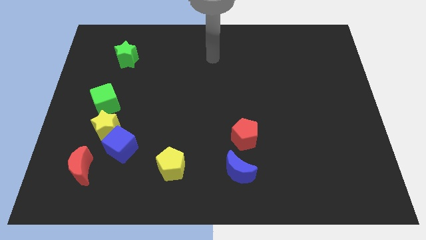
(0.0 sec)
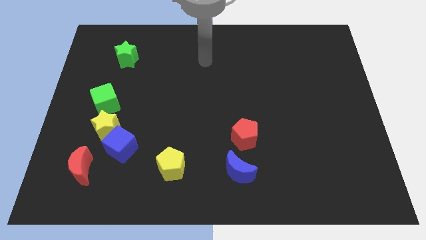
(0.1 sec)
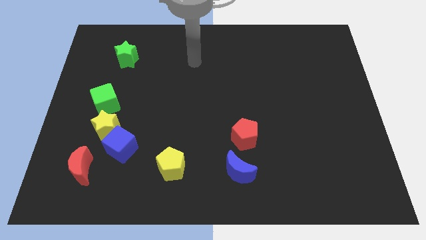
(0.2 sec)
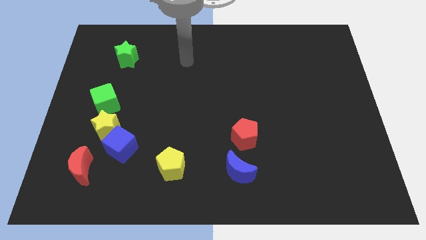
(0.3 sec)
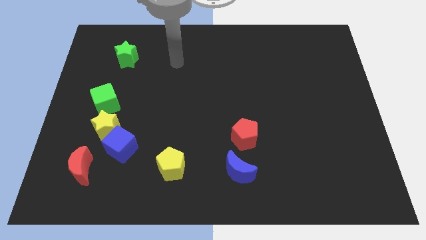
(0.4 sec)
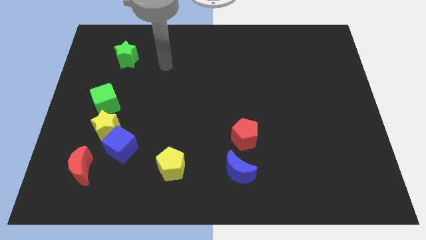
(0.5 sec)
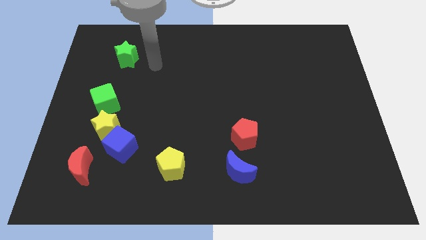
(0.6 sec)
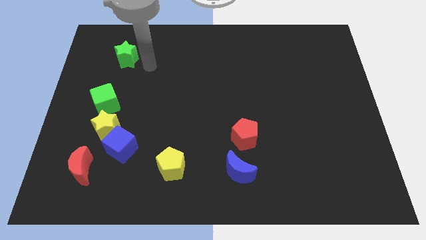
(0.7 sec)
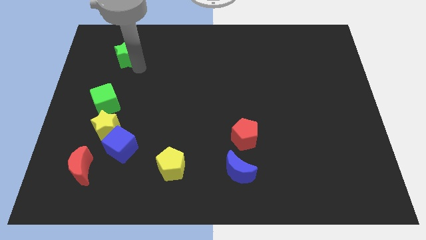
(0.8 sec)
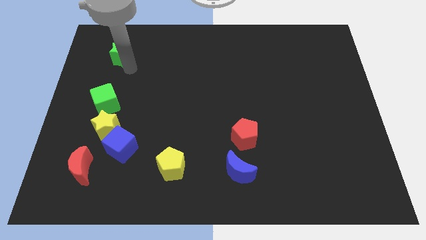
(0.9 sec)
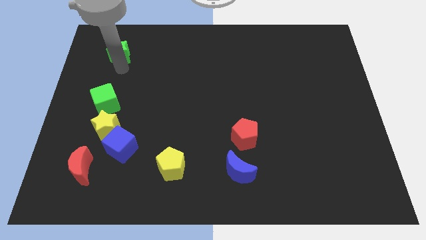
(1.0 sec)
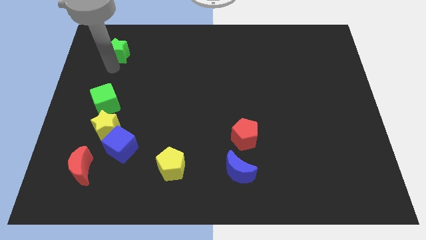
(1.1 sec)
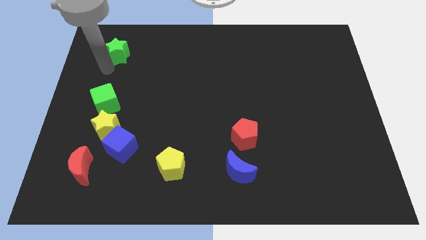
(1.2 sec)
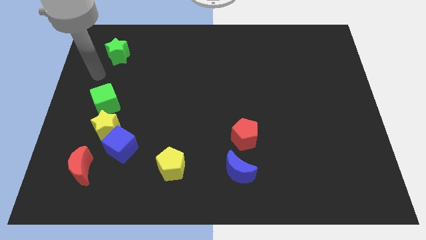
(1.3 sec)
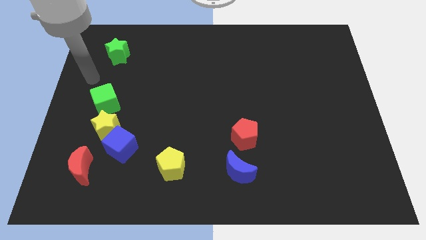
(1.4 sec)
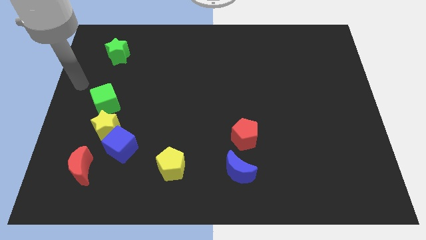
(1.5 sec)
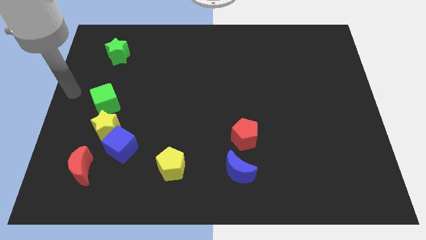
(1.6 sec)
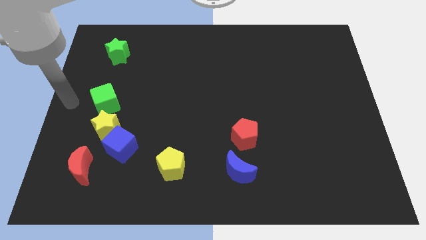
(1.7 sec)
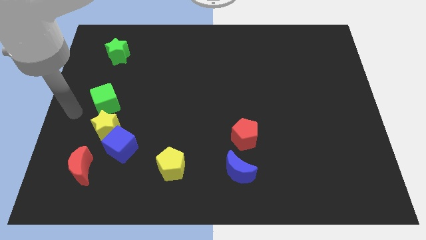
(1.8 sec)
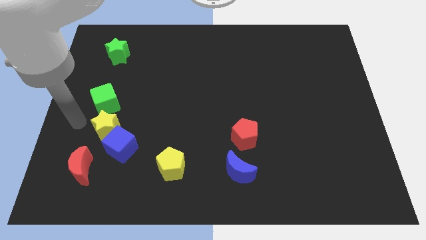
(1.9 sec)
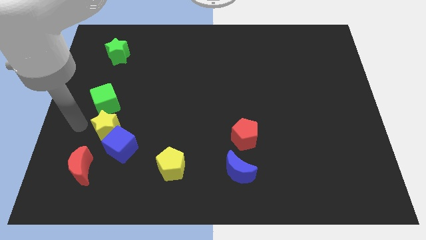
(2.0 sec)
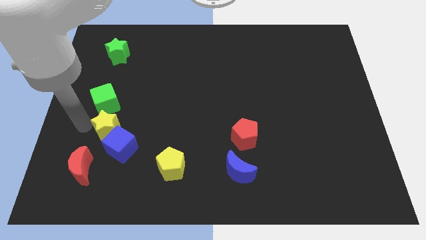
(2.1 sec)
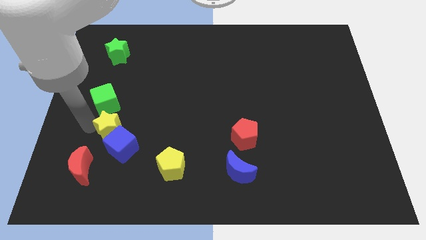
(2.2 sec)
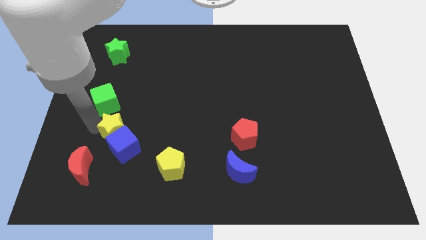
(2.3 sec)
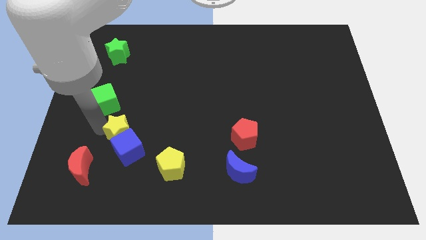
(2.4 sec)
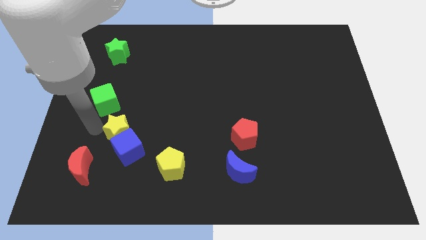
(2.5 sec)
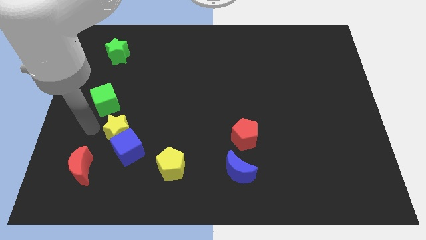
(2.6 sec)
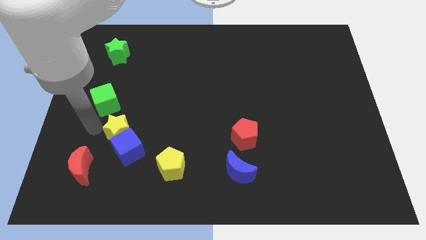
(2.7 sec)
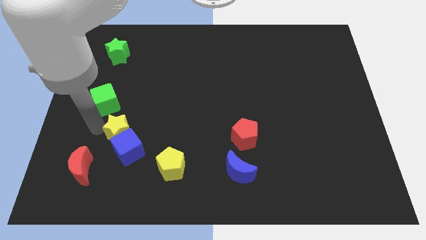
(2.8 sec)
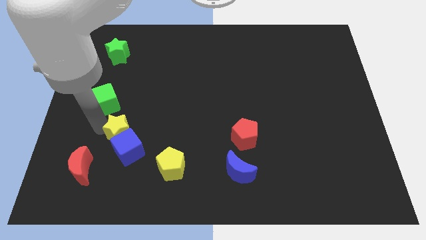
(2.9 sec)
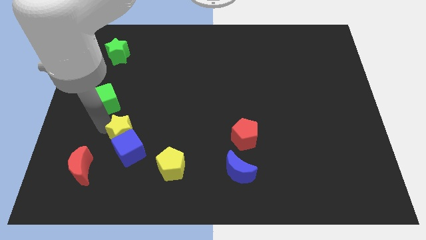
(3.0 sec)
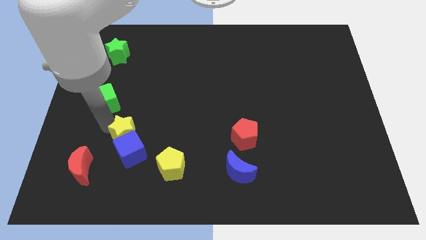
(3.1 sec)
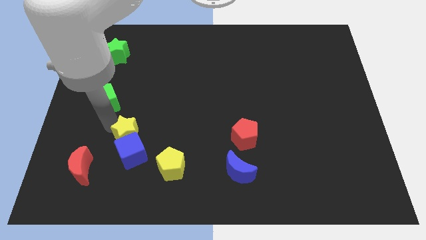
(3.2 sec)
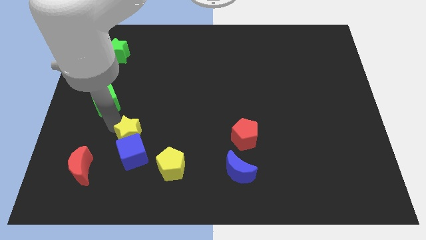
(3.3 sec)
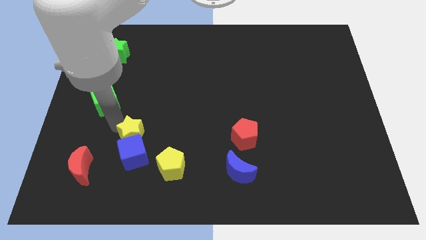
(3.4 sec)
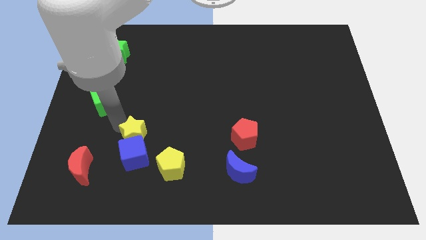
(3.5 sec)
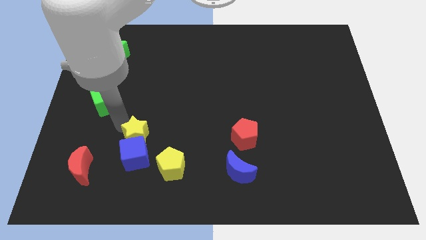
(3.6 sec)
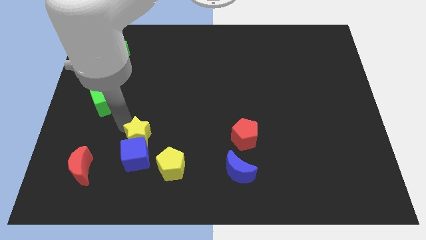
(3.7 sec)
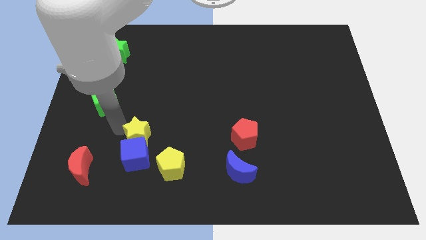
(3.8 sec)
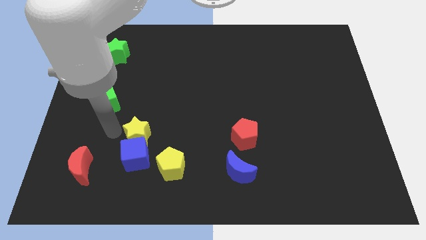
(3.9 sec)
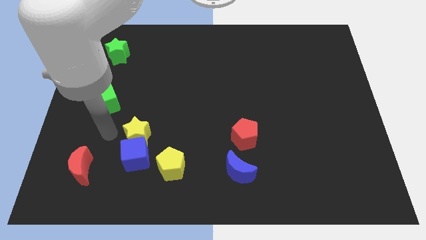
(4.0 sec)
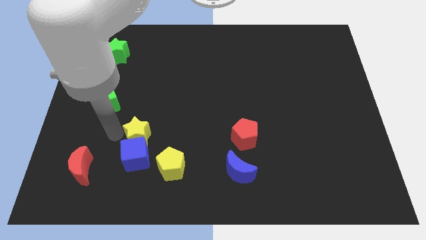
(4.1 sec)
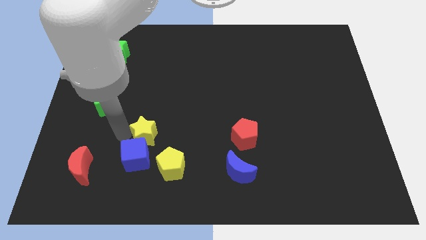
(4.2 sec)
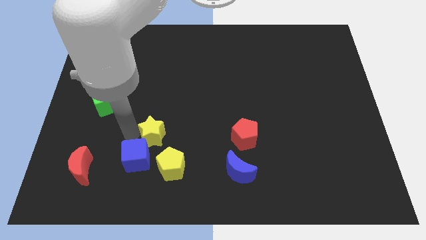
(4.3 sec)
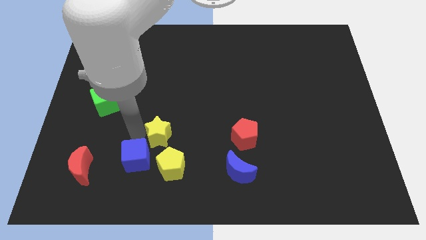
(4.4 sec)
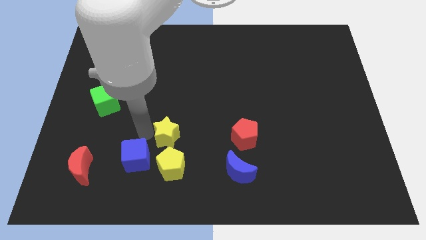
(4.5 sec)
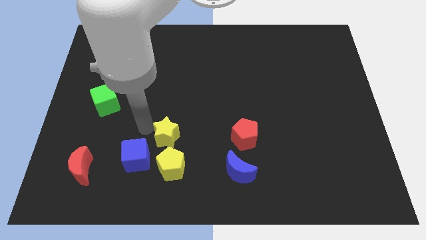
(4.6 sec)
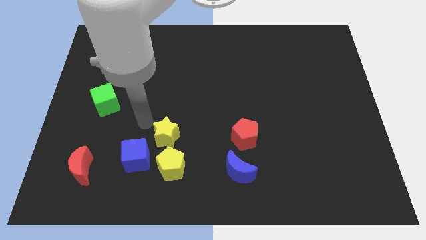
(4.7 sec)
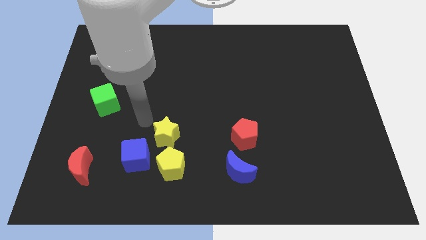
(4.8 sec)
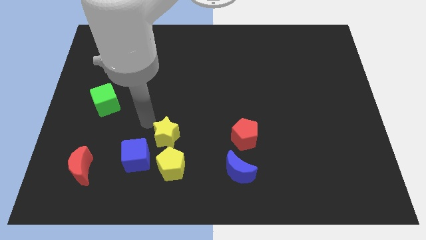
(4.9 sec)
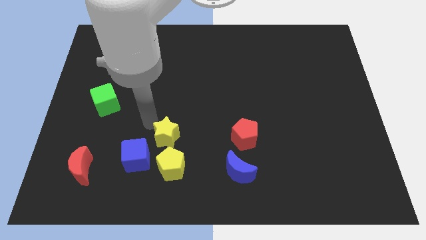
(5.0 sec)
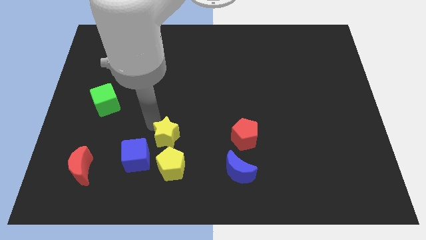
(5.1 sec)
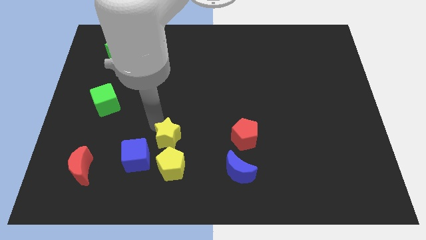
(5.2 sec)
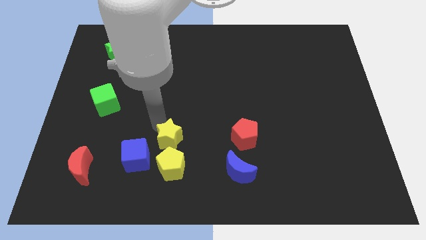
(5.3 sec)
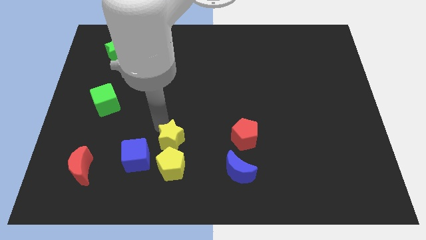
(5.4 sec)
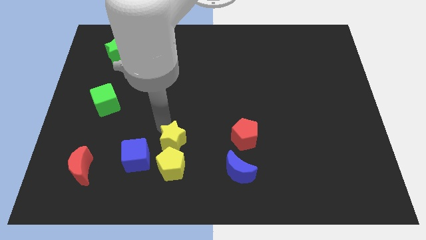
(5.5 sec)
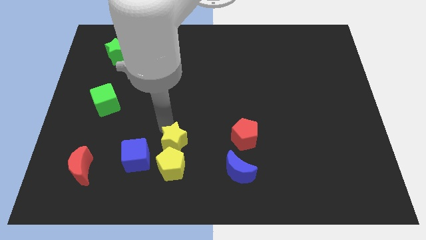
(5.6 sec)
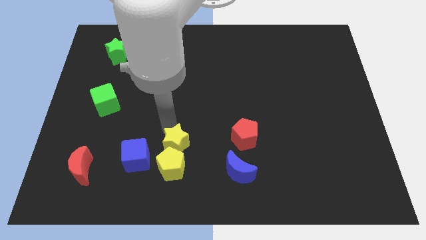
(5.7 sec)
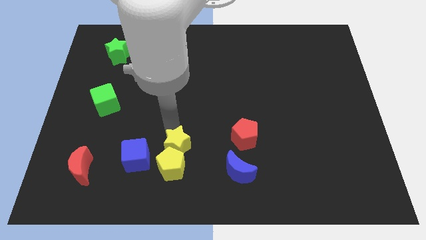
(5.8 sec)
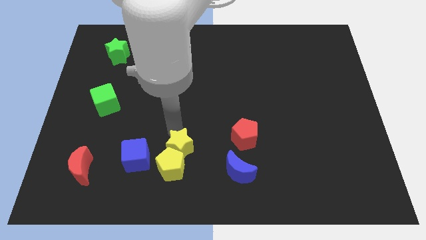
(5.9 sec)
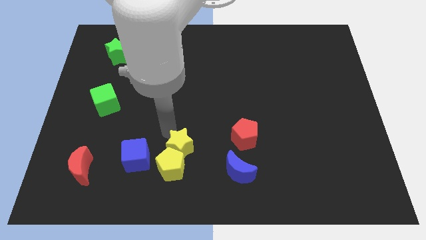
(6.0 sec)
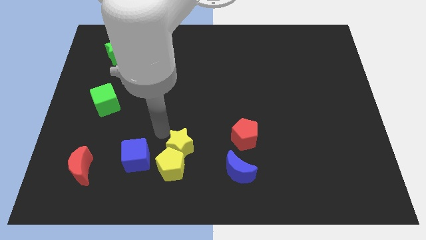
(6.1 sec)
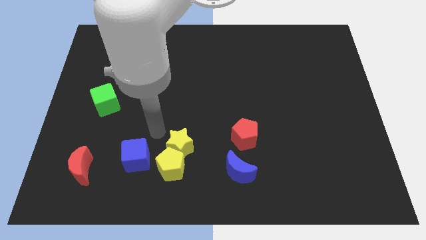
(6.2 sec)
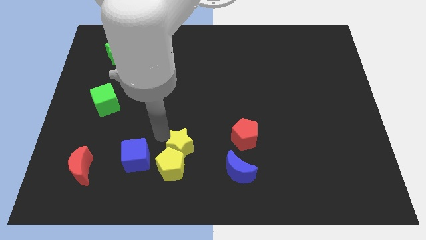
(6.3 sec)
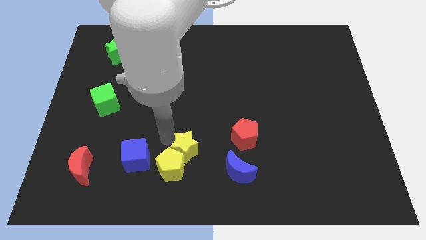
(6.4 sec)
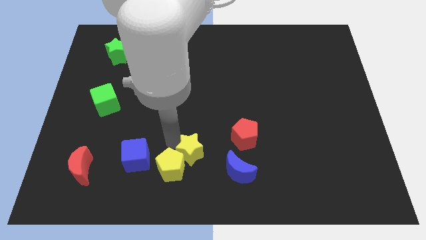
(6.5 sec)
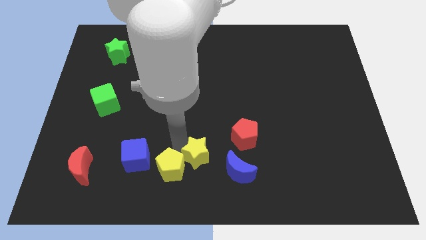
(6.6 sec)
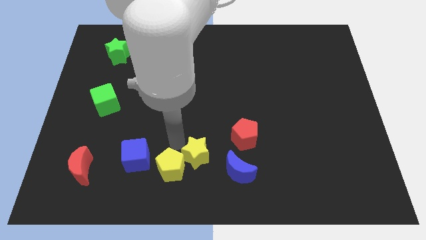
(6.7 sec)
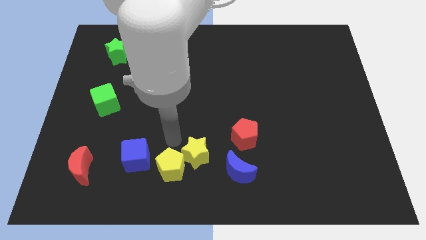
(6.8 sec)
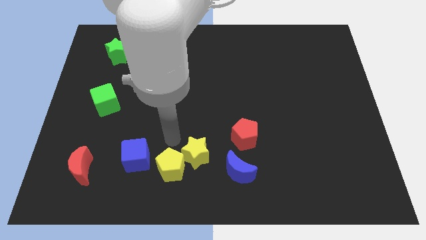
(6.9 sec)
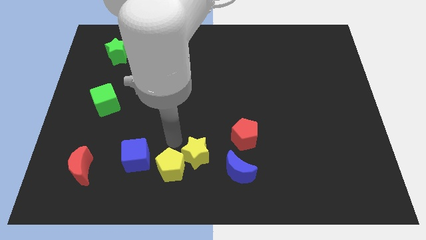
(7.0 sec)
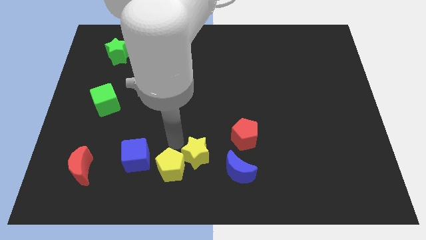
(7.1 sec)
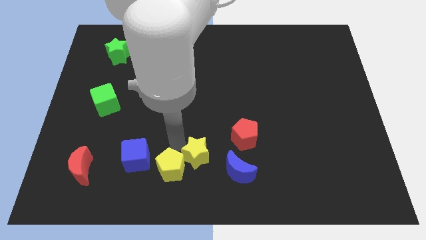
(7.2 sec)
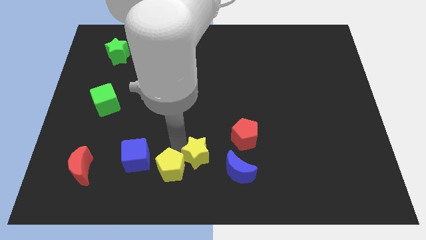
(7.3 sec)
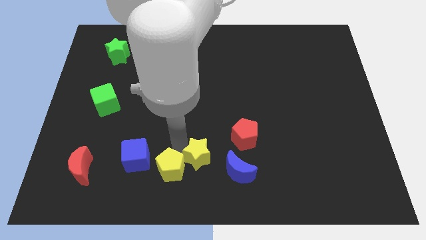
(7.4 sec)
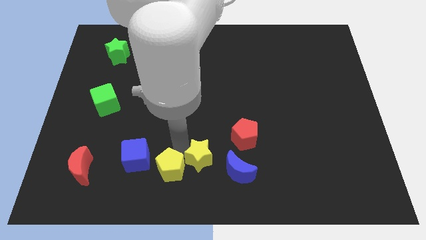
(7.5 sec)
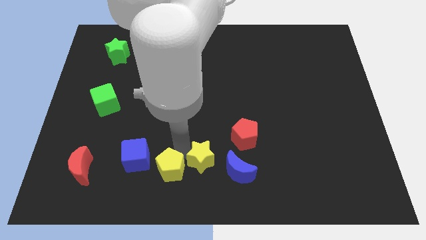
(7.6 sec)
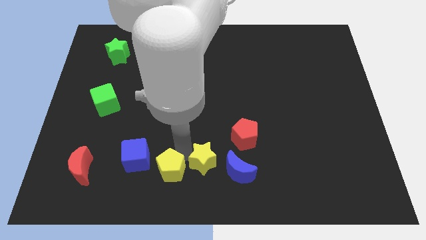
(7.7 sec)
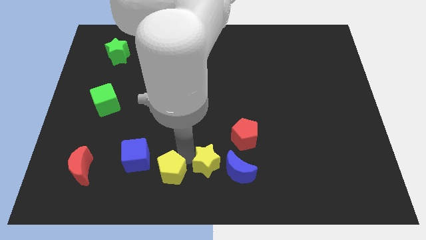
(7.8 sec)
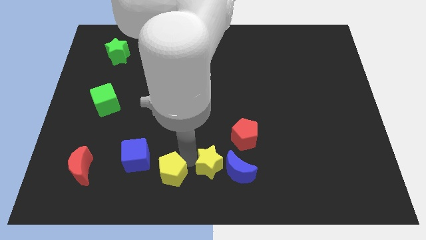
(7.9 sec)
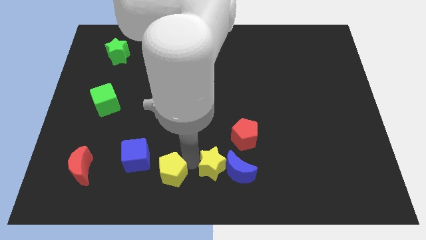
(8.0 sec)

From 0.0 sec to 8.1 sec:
push the yellow star next to the blue moon

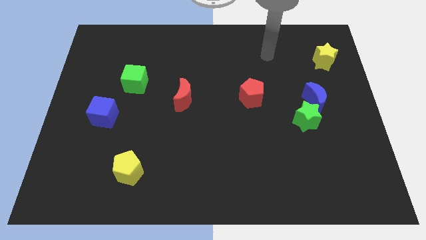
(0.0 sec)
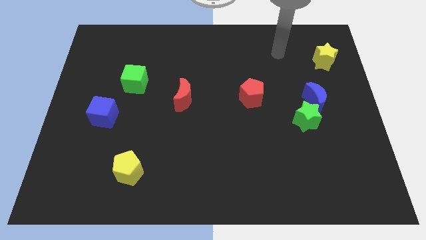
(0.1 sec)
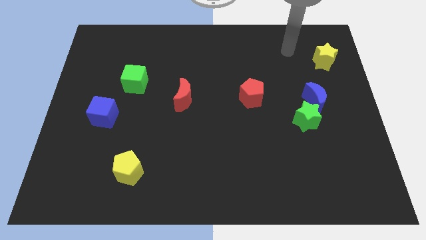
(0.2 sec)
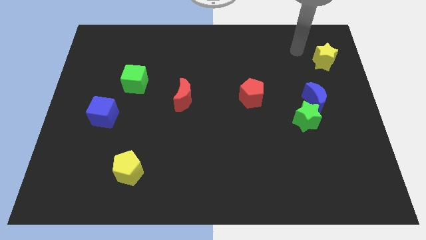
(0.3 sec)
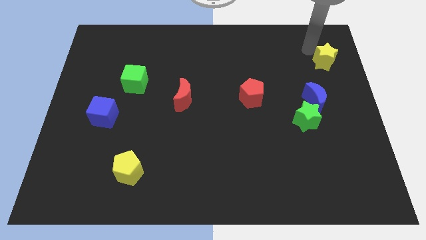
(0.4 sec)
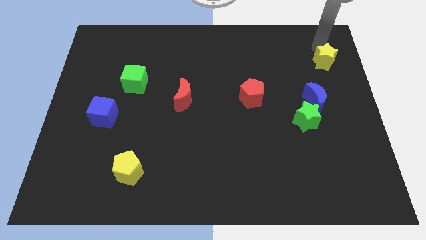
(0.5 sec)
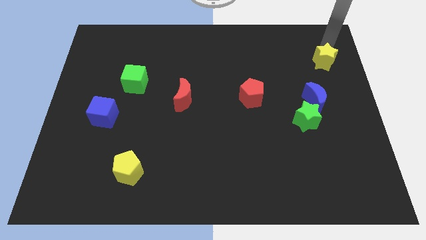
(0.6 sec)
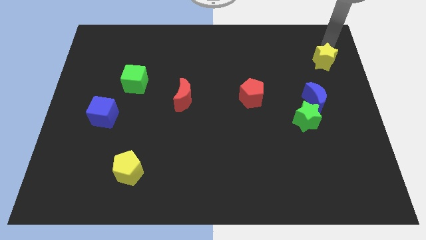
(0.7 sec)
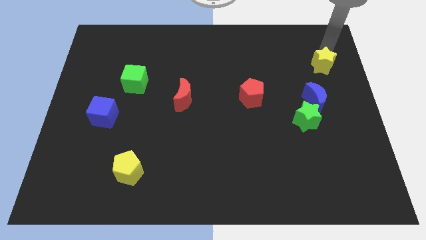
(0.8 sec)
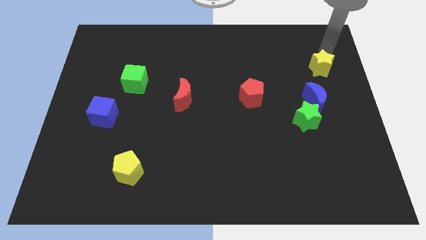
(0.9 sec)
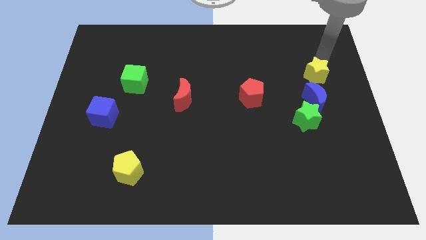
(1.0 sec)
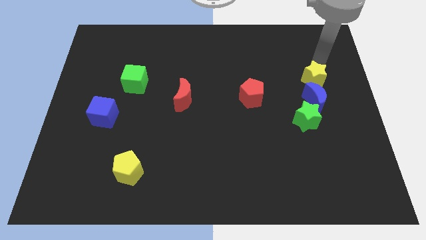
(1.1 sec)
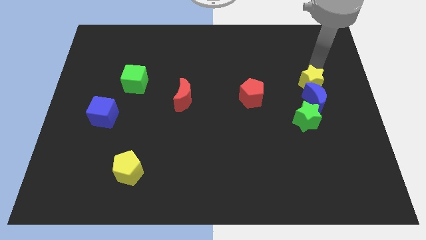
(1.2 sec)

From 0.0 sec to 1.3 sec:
move the yellow star close to the blue moon
